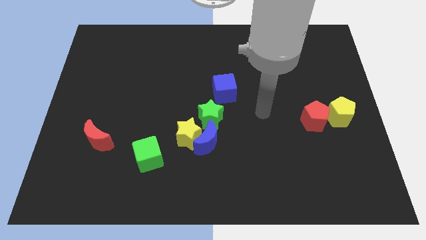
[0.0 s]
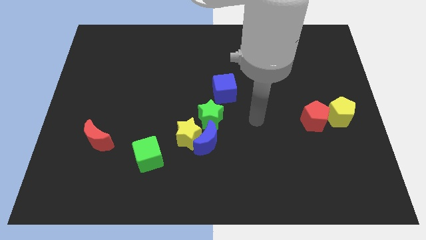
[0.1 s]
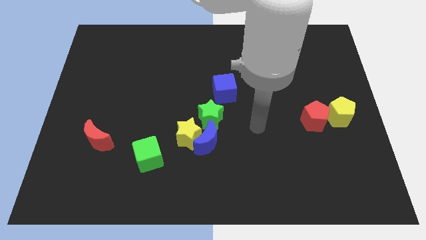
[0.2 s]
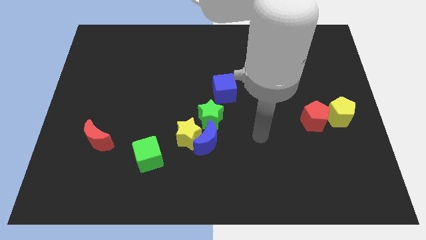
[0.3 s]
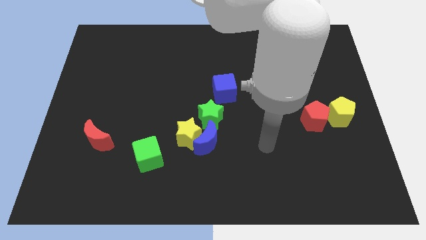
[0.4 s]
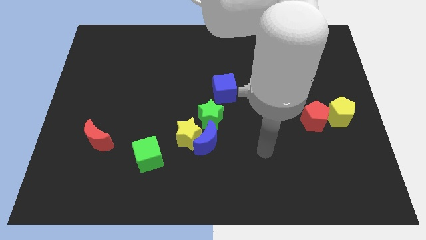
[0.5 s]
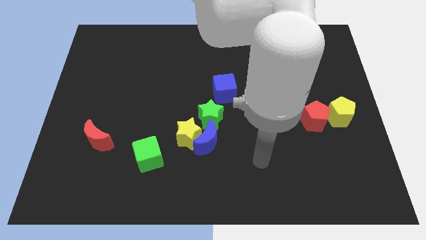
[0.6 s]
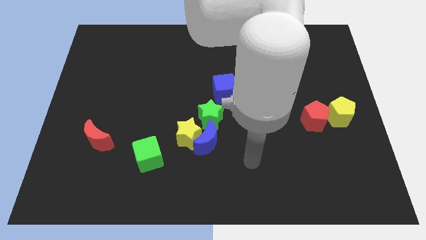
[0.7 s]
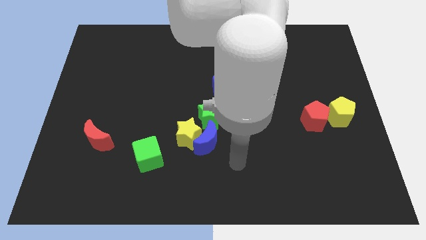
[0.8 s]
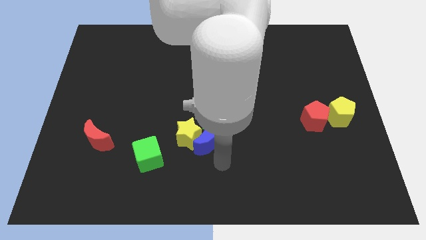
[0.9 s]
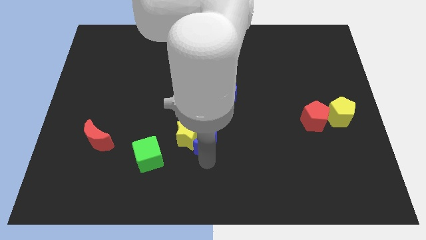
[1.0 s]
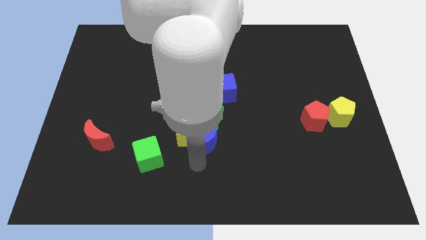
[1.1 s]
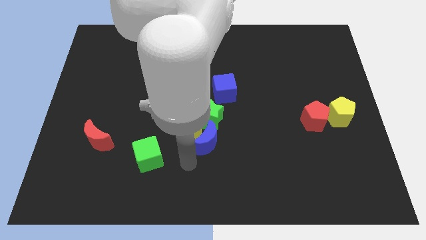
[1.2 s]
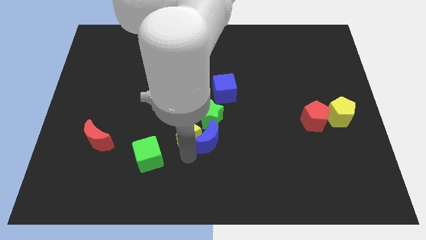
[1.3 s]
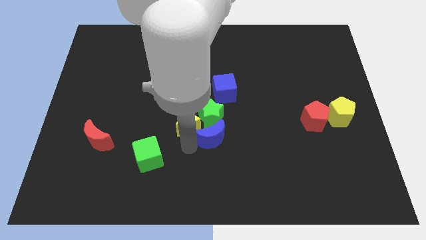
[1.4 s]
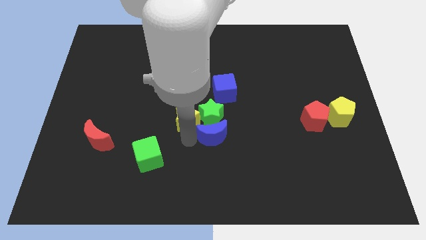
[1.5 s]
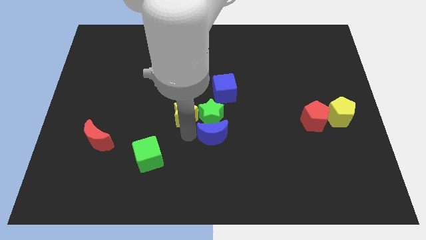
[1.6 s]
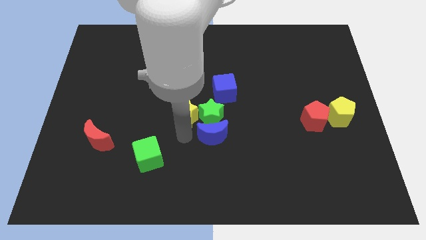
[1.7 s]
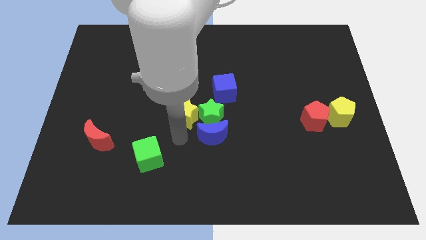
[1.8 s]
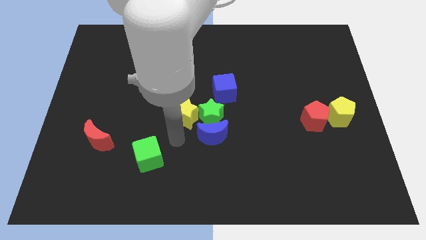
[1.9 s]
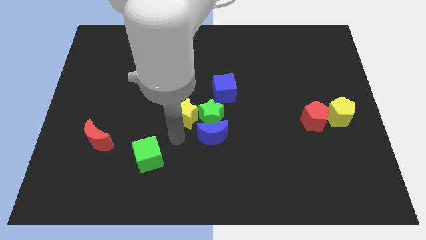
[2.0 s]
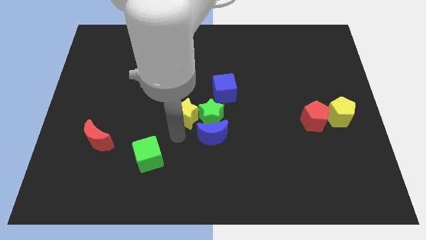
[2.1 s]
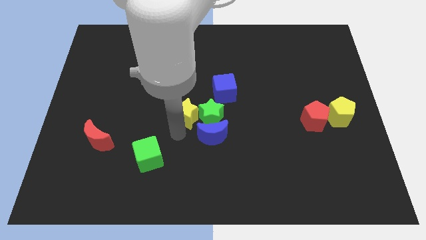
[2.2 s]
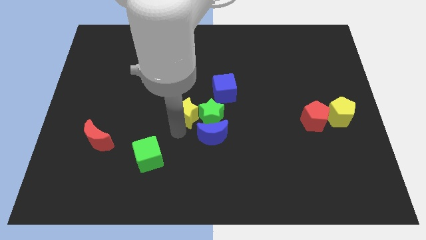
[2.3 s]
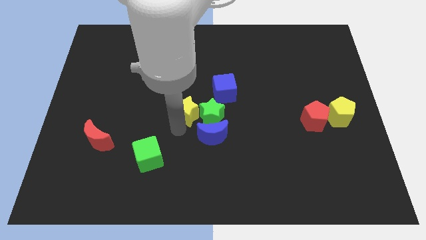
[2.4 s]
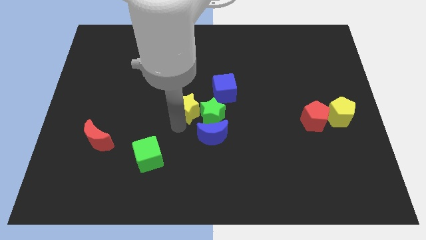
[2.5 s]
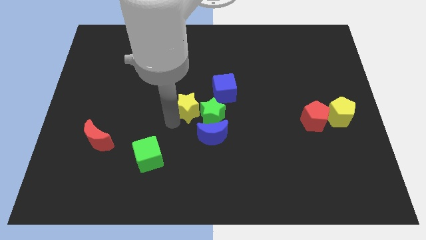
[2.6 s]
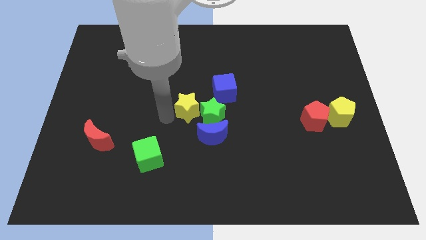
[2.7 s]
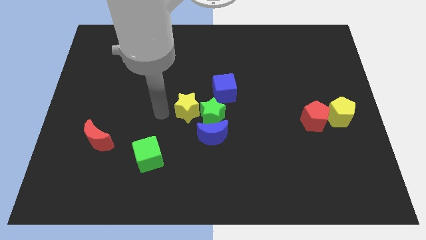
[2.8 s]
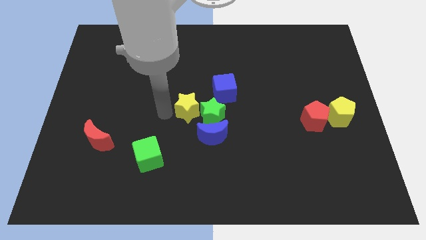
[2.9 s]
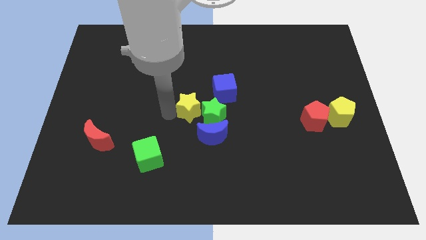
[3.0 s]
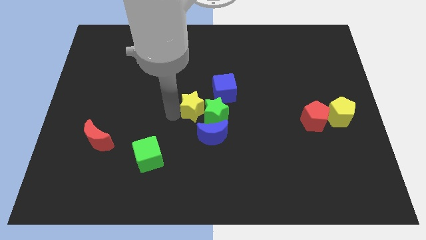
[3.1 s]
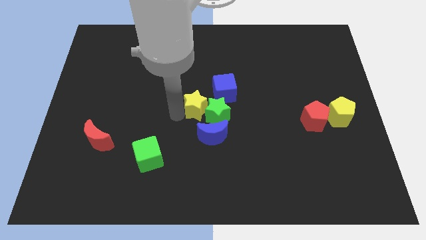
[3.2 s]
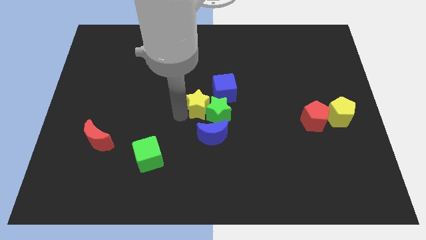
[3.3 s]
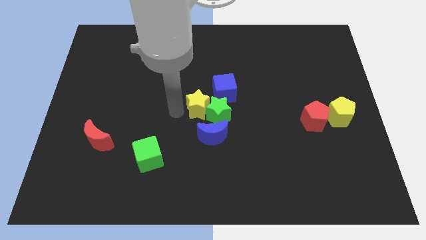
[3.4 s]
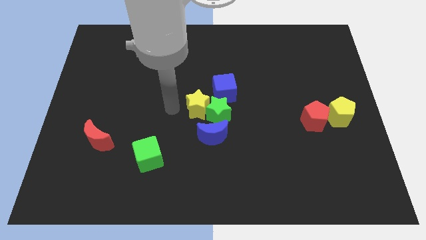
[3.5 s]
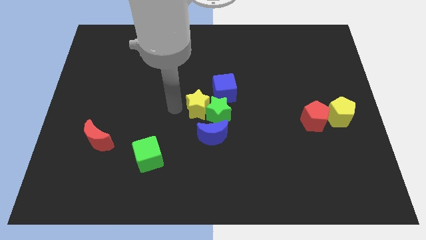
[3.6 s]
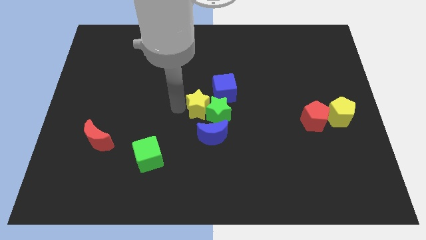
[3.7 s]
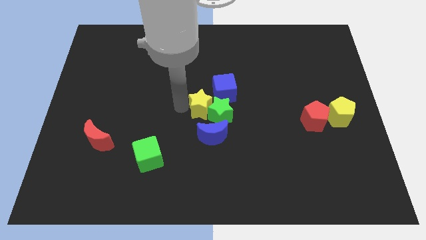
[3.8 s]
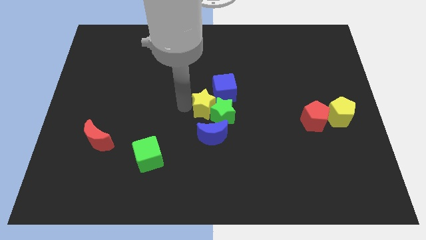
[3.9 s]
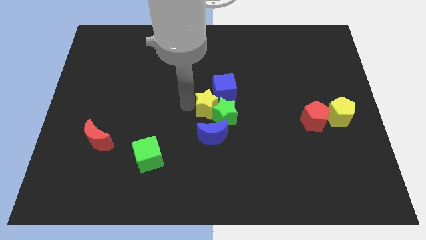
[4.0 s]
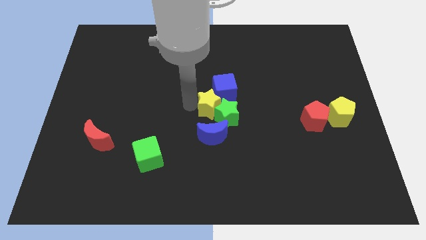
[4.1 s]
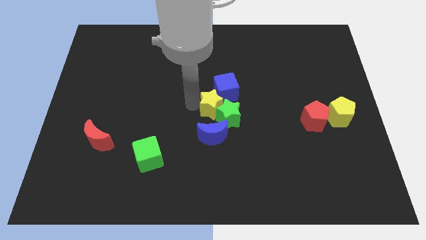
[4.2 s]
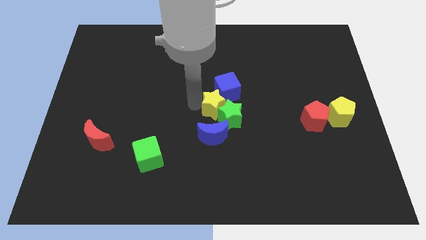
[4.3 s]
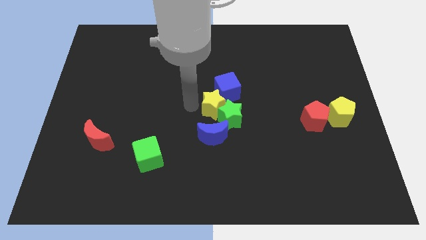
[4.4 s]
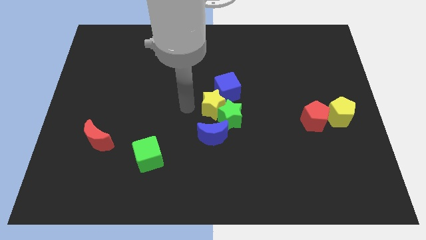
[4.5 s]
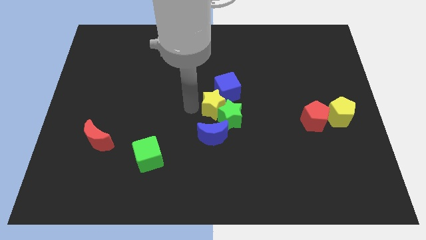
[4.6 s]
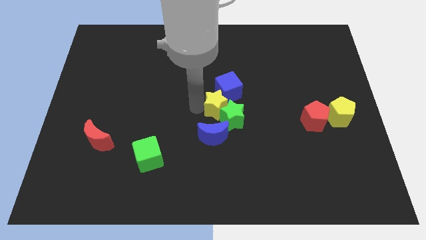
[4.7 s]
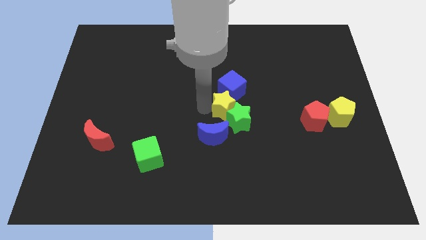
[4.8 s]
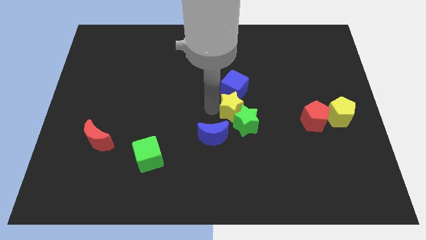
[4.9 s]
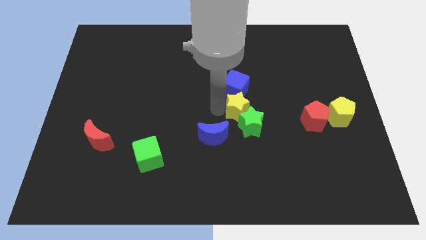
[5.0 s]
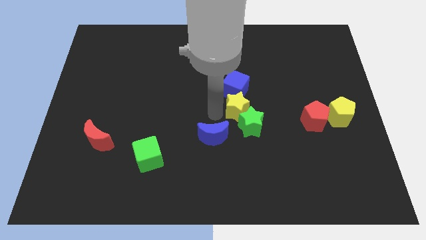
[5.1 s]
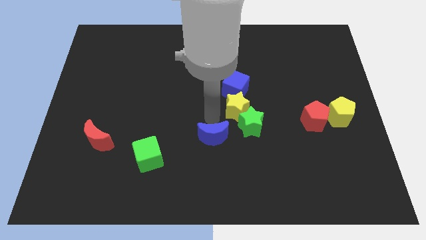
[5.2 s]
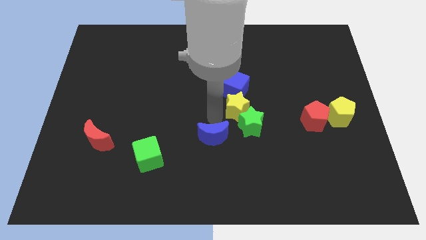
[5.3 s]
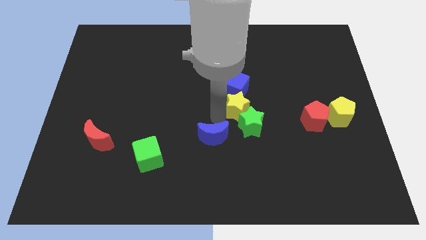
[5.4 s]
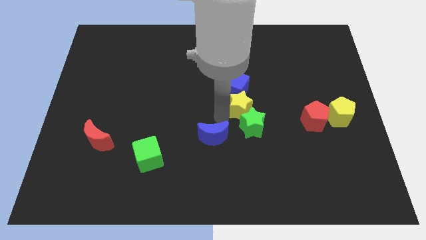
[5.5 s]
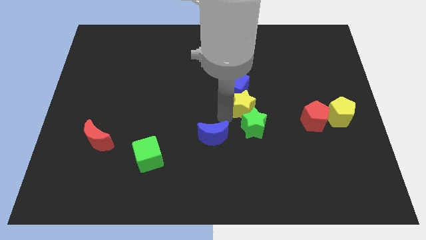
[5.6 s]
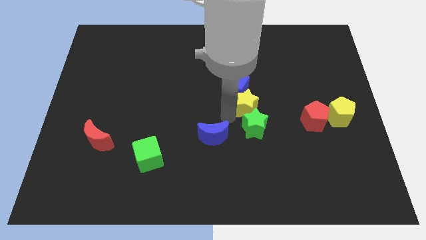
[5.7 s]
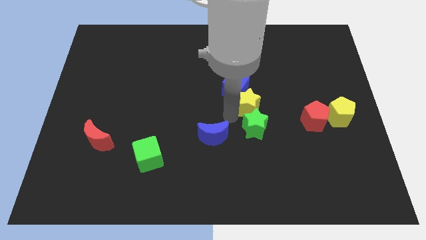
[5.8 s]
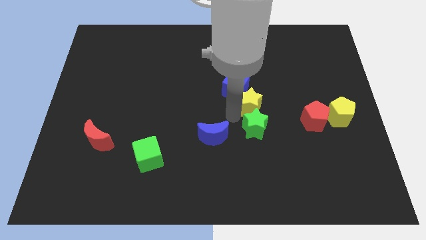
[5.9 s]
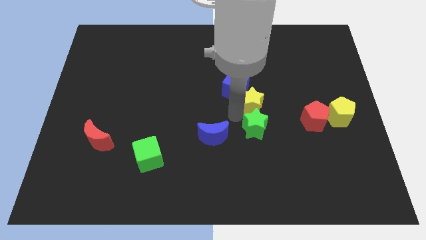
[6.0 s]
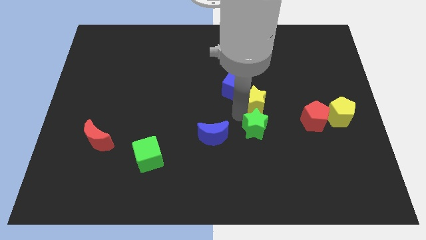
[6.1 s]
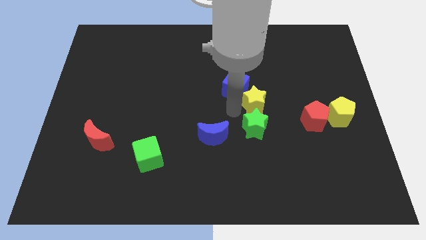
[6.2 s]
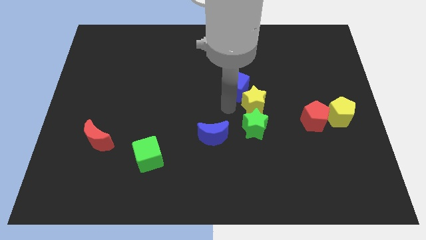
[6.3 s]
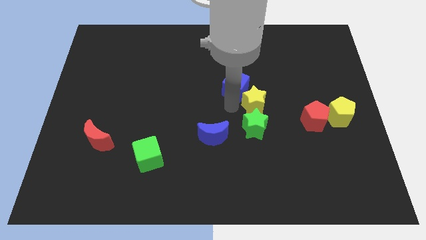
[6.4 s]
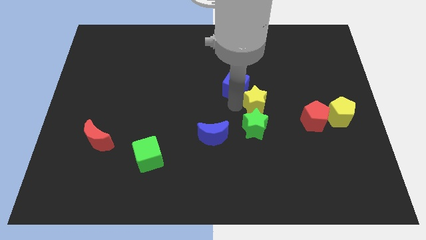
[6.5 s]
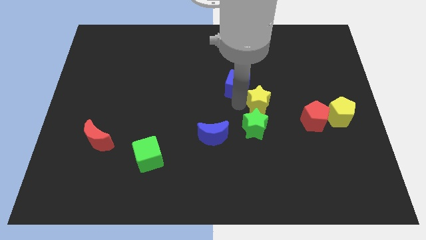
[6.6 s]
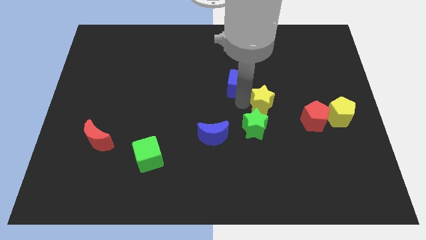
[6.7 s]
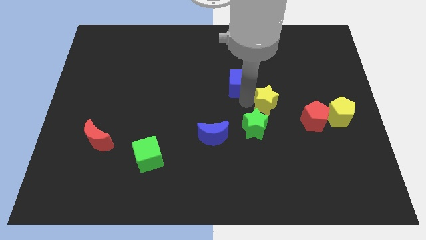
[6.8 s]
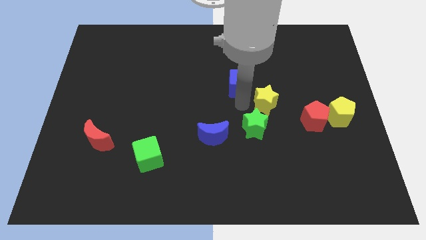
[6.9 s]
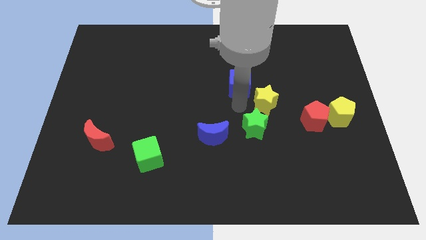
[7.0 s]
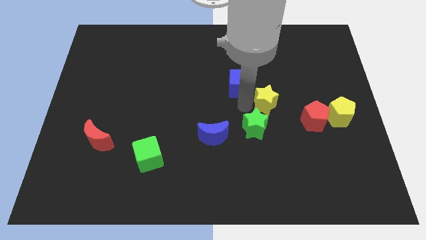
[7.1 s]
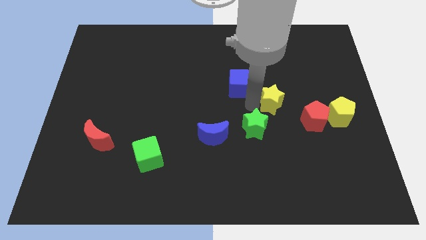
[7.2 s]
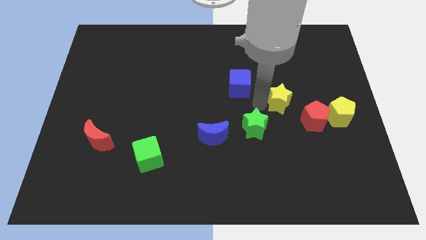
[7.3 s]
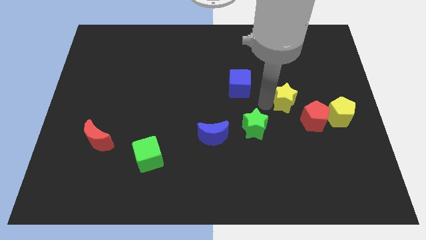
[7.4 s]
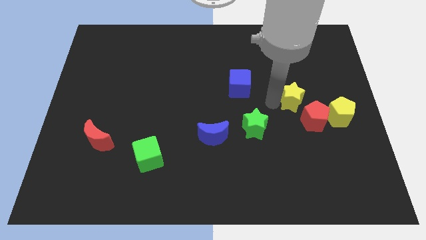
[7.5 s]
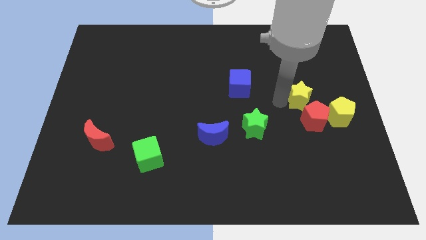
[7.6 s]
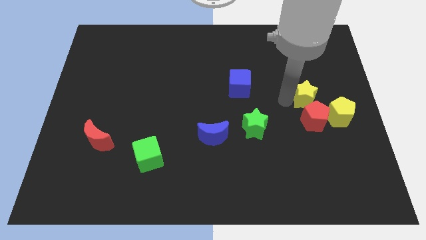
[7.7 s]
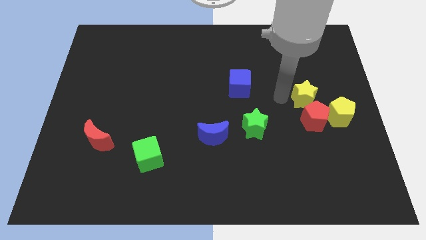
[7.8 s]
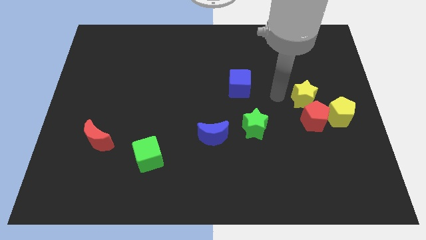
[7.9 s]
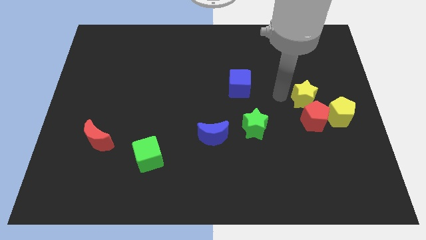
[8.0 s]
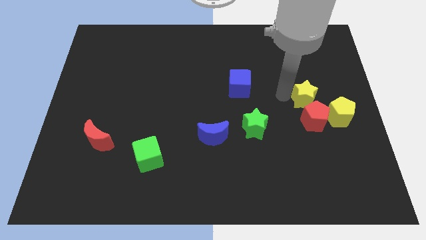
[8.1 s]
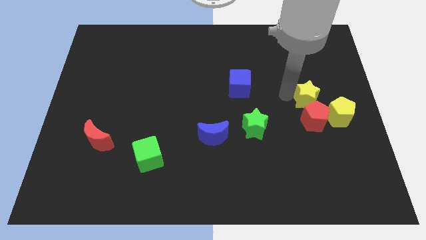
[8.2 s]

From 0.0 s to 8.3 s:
slide the yellow star diagonally up and to the right of the red pentagon
